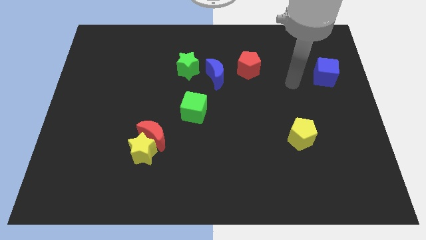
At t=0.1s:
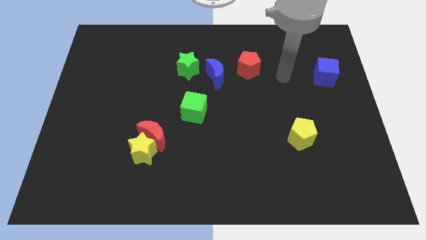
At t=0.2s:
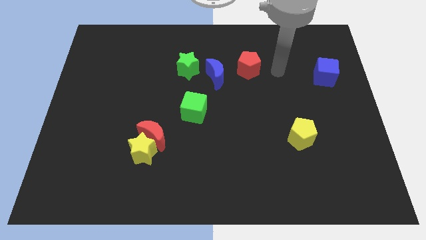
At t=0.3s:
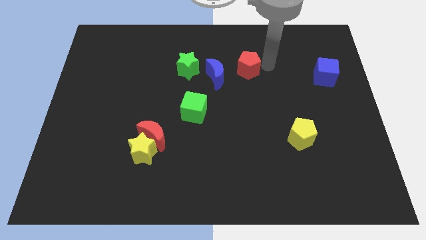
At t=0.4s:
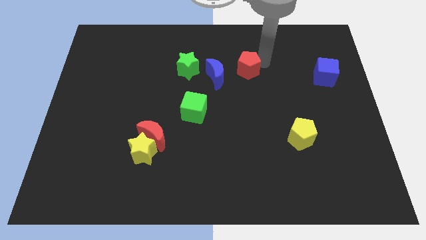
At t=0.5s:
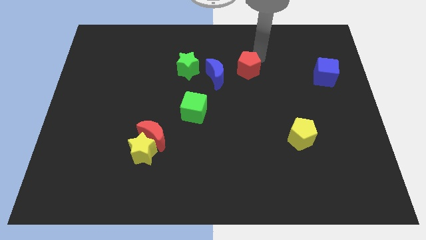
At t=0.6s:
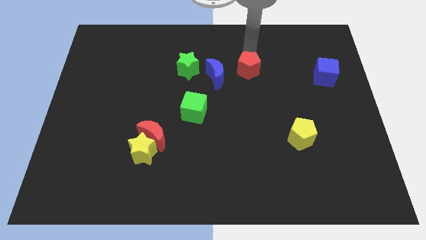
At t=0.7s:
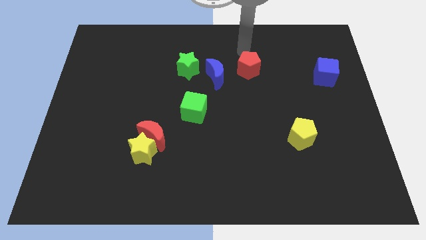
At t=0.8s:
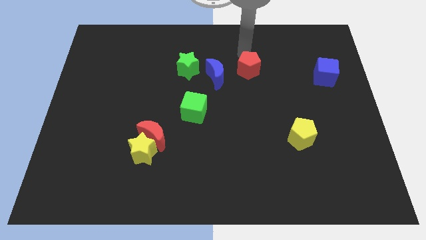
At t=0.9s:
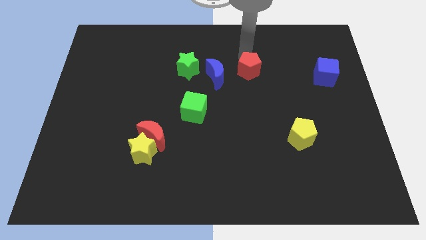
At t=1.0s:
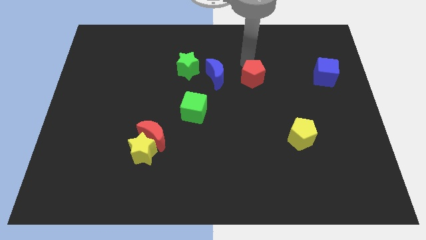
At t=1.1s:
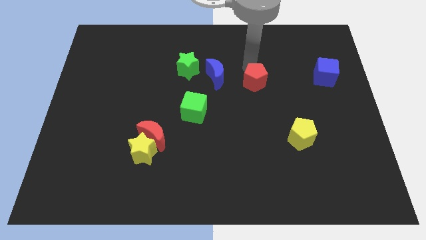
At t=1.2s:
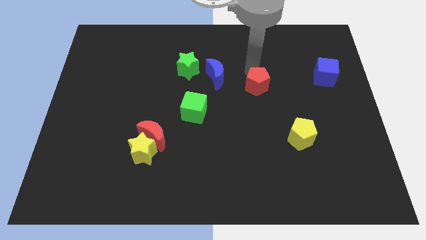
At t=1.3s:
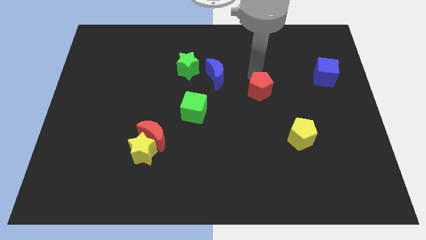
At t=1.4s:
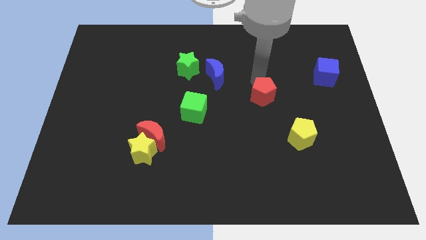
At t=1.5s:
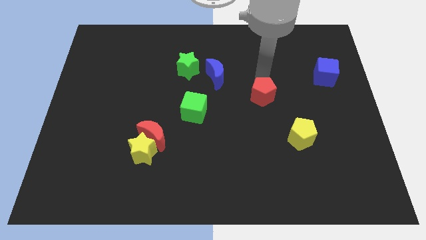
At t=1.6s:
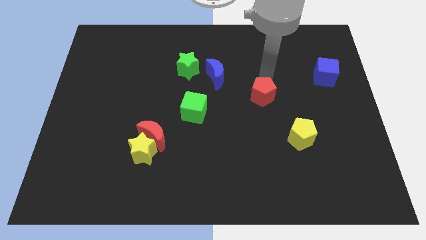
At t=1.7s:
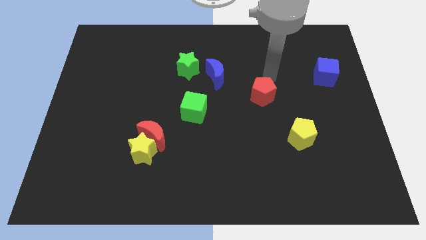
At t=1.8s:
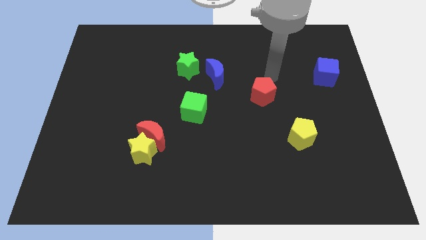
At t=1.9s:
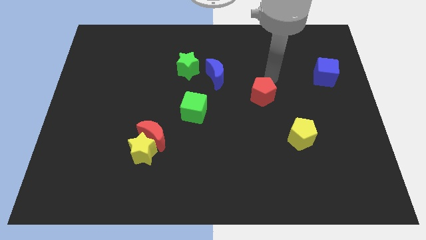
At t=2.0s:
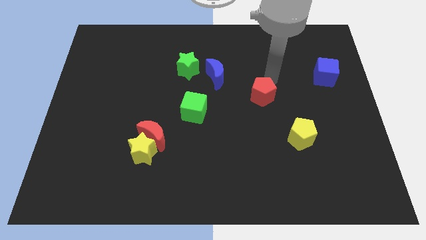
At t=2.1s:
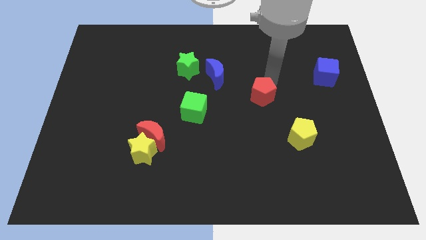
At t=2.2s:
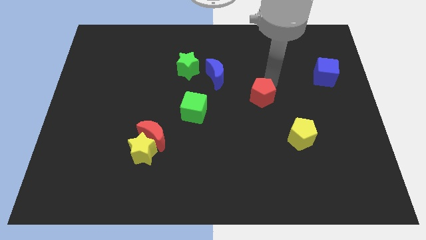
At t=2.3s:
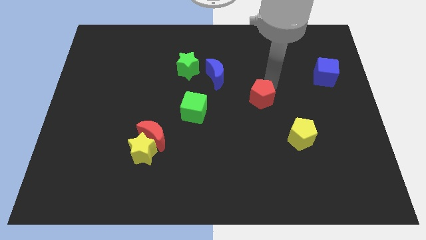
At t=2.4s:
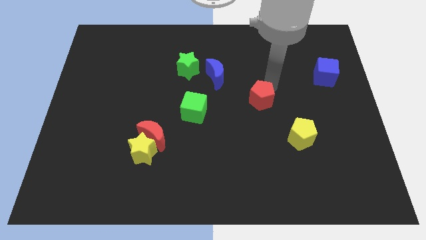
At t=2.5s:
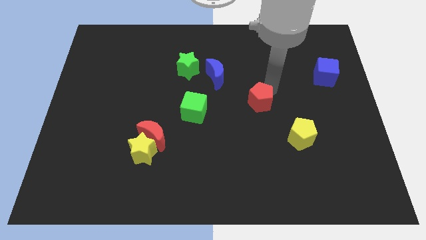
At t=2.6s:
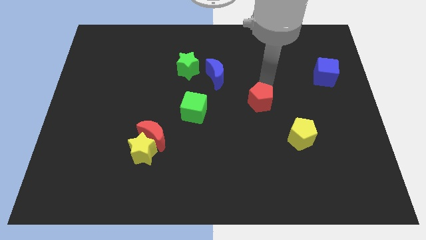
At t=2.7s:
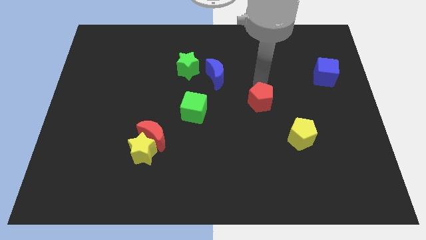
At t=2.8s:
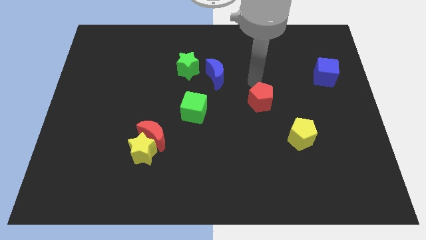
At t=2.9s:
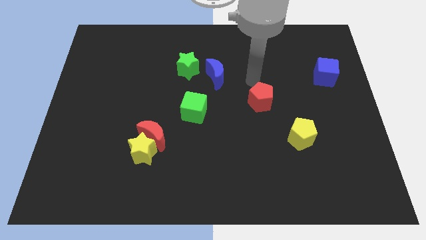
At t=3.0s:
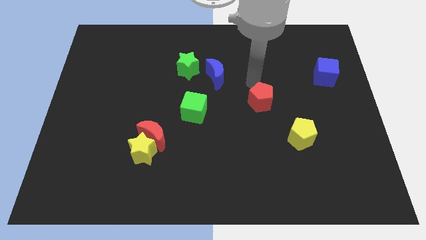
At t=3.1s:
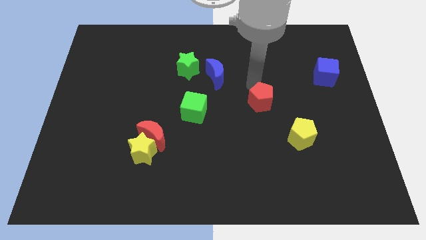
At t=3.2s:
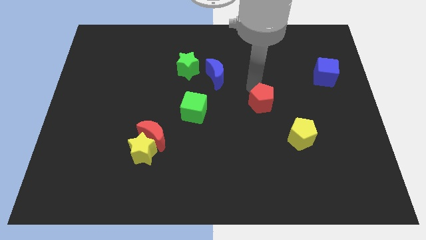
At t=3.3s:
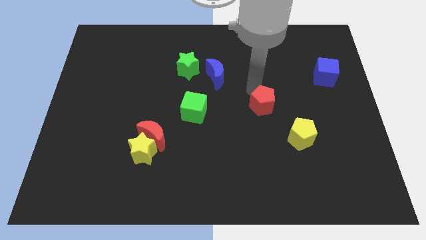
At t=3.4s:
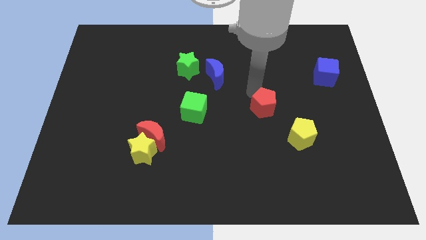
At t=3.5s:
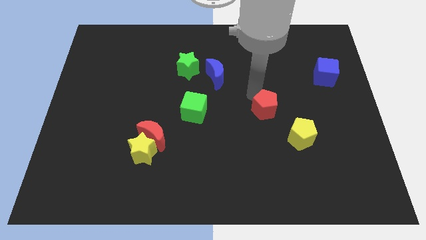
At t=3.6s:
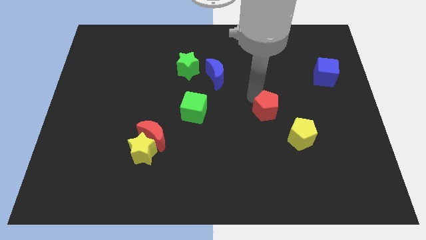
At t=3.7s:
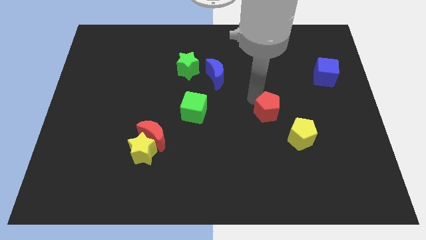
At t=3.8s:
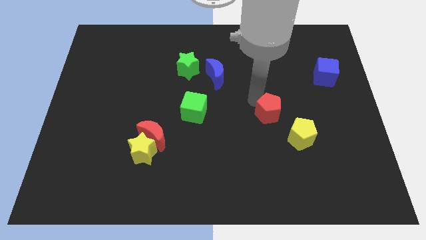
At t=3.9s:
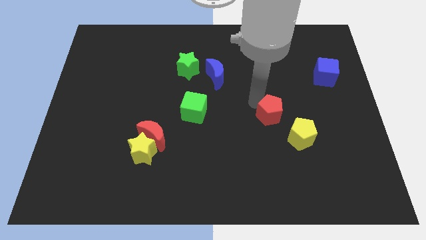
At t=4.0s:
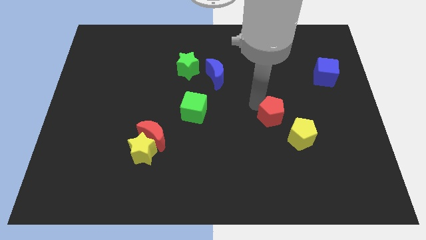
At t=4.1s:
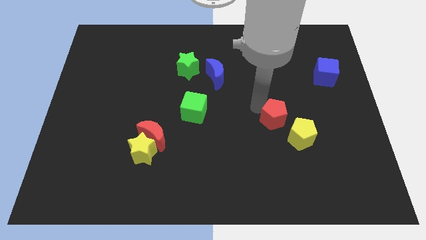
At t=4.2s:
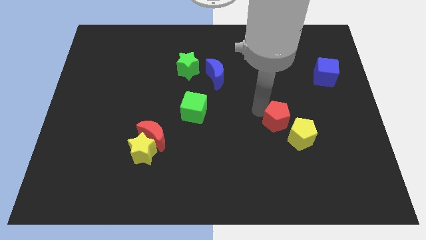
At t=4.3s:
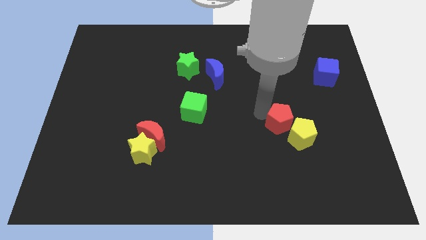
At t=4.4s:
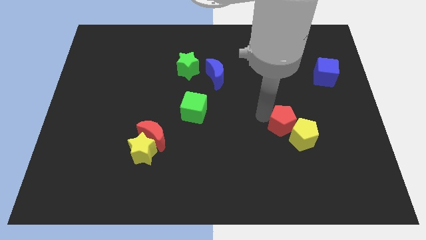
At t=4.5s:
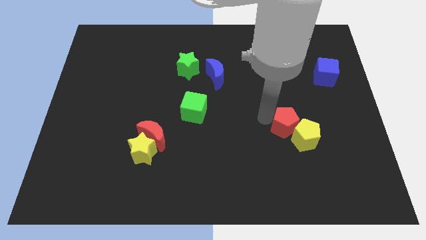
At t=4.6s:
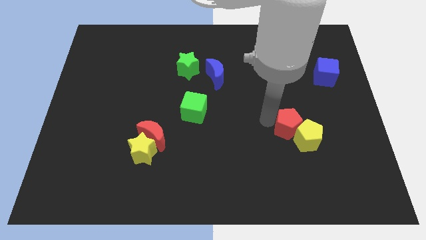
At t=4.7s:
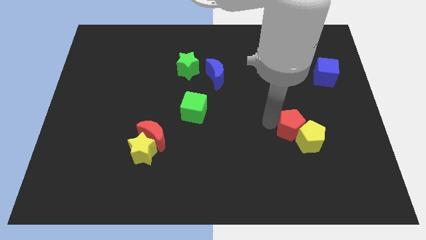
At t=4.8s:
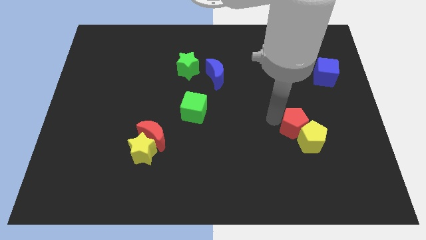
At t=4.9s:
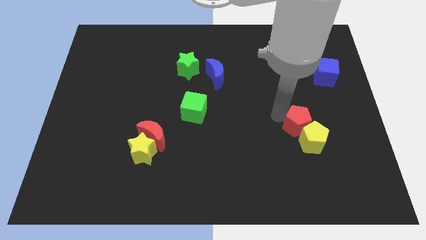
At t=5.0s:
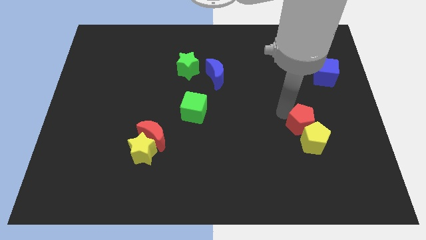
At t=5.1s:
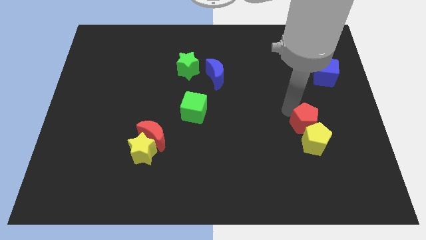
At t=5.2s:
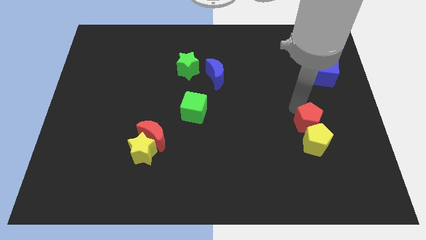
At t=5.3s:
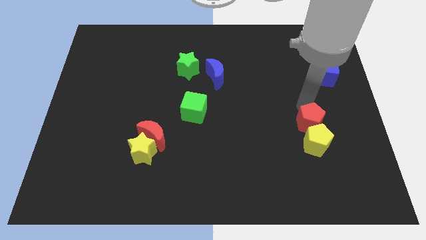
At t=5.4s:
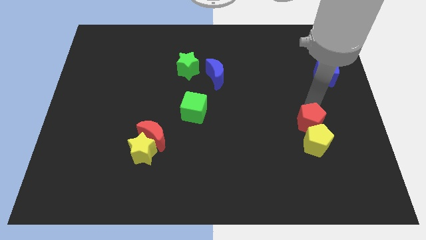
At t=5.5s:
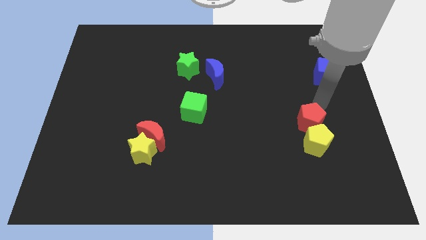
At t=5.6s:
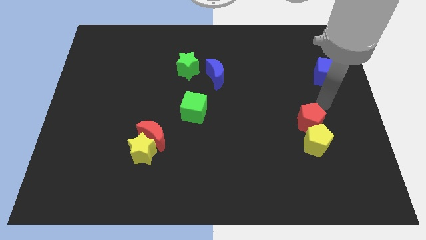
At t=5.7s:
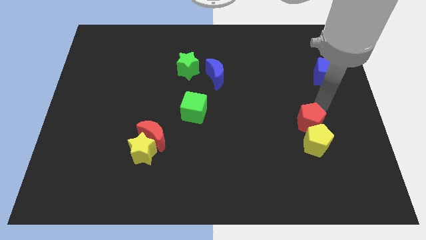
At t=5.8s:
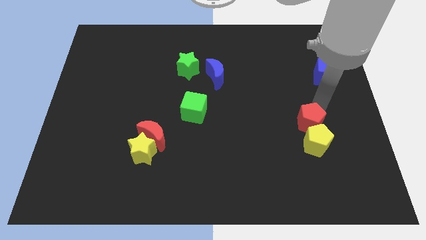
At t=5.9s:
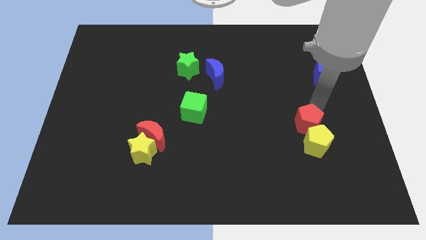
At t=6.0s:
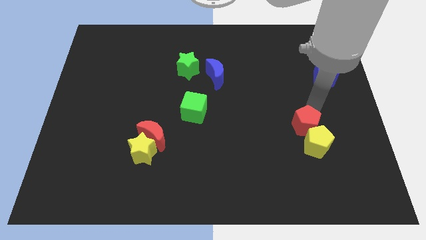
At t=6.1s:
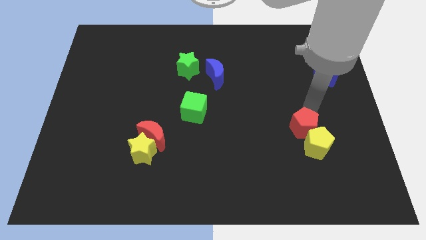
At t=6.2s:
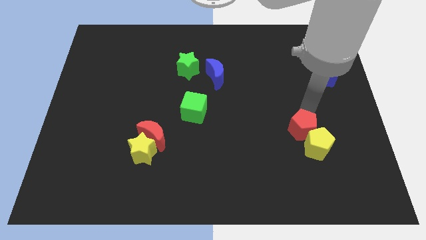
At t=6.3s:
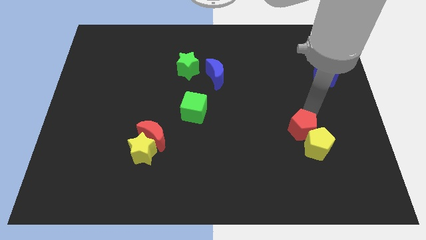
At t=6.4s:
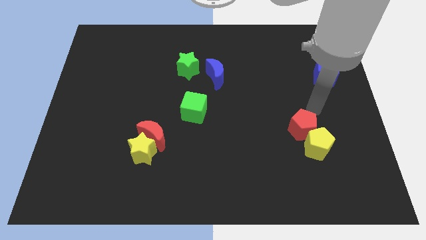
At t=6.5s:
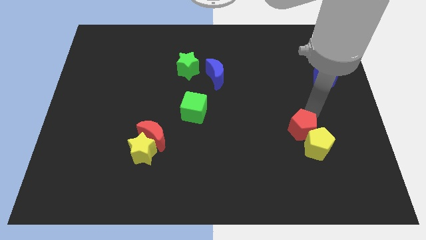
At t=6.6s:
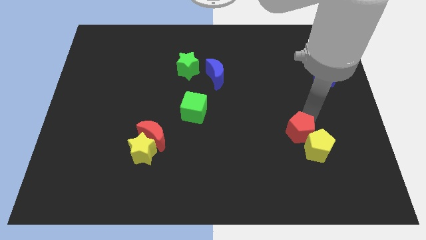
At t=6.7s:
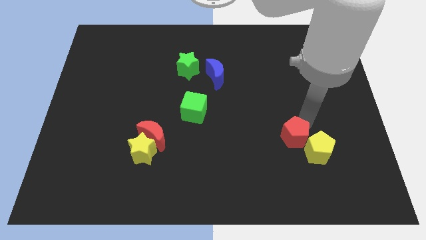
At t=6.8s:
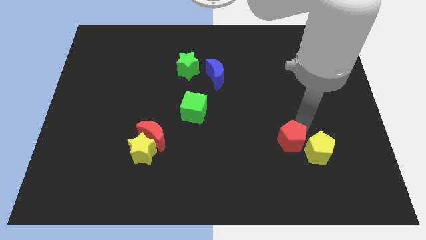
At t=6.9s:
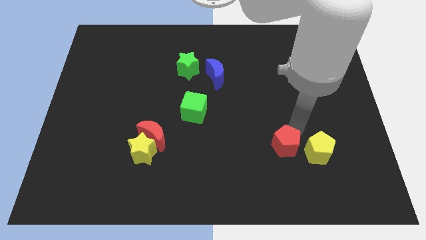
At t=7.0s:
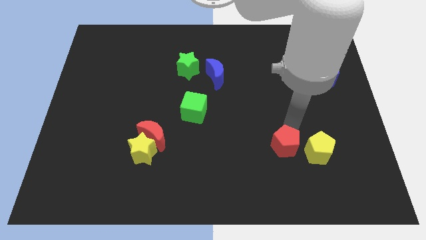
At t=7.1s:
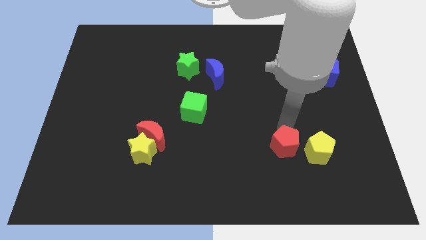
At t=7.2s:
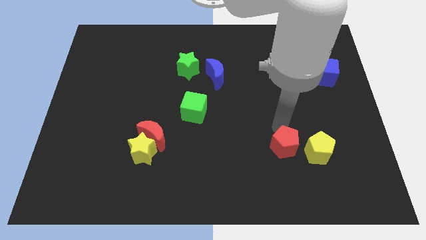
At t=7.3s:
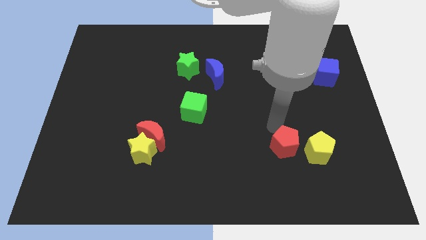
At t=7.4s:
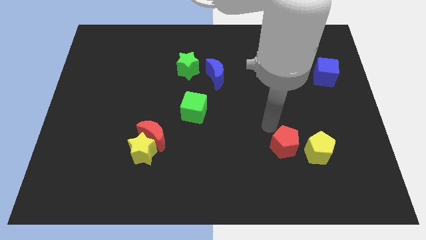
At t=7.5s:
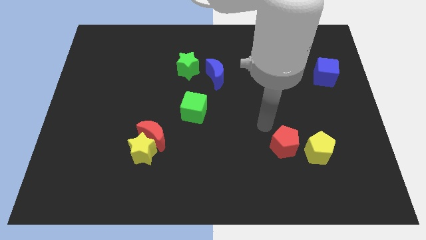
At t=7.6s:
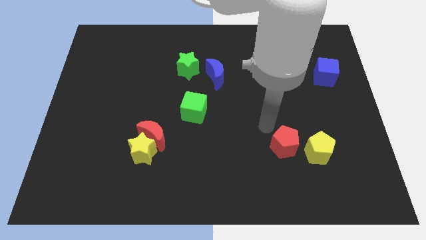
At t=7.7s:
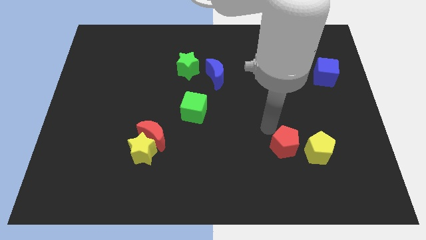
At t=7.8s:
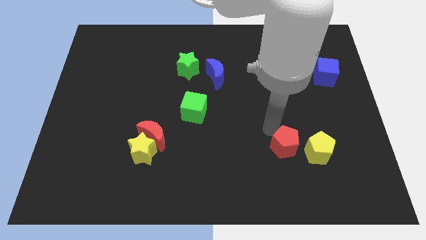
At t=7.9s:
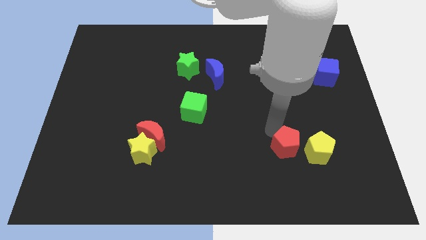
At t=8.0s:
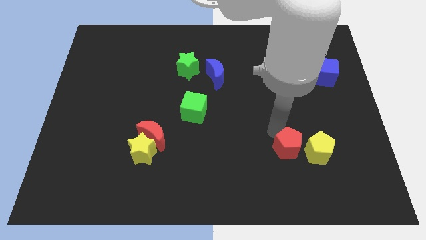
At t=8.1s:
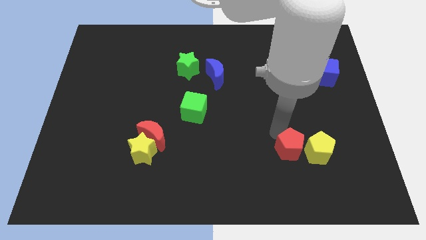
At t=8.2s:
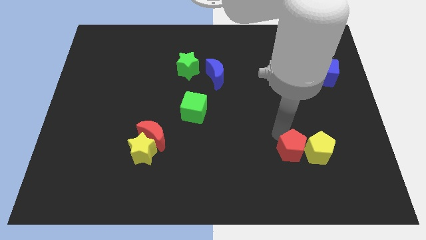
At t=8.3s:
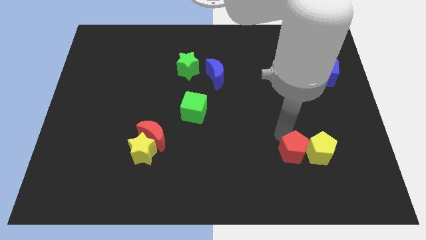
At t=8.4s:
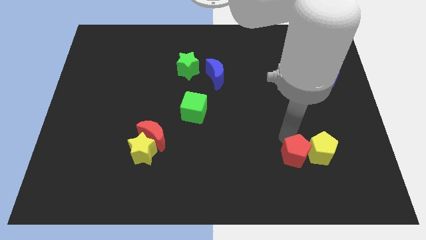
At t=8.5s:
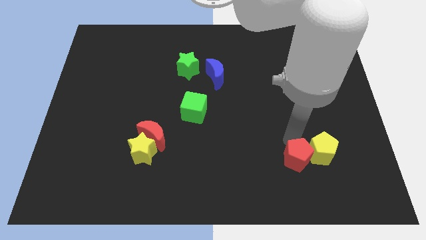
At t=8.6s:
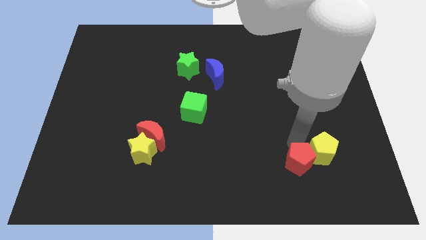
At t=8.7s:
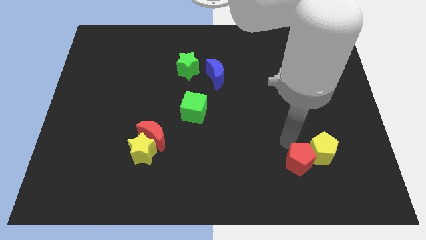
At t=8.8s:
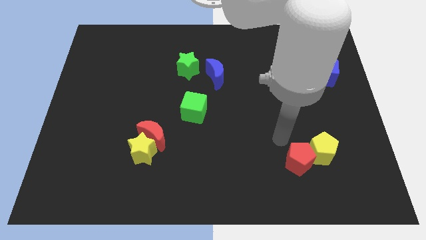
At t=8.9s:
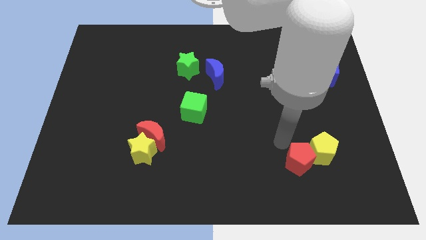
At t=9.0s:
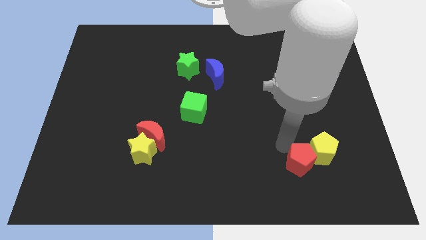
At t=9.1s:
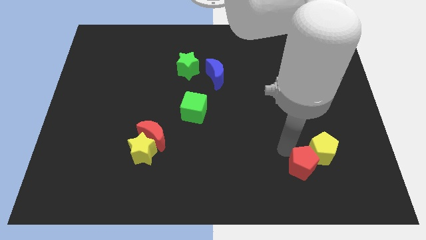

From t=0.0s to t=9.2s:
put the red pentagon below the yellow pentagon
